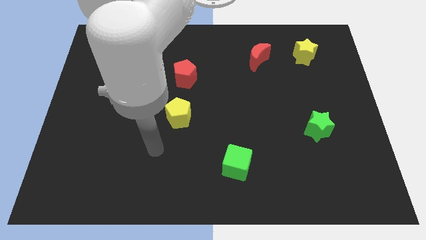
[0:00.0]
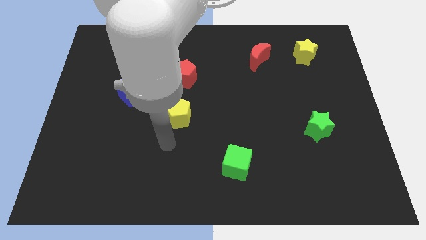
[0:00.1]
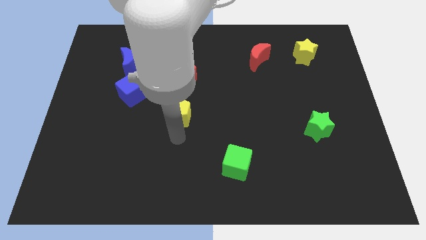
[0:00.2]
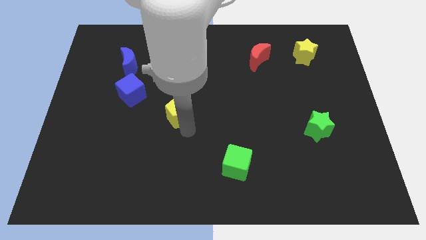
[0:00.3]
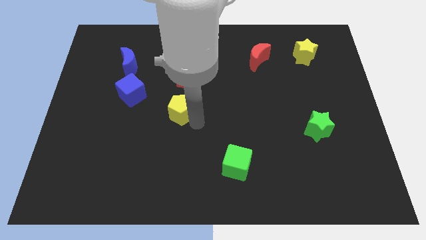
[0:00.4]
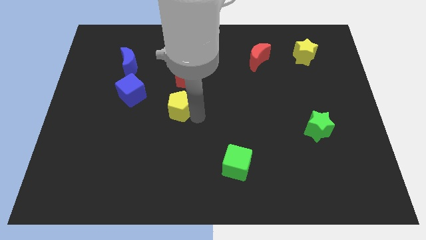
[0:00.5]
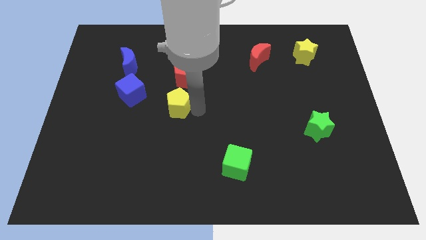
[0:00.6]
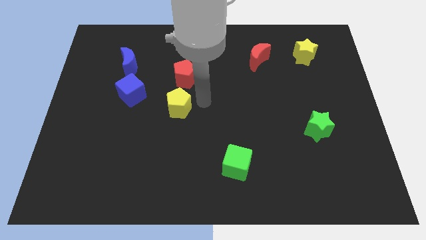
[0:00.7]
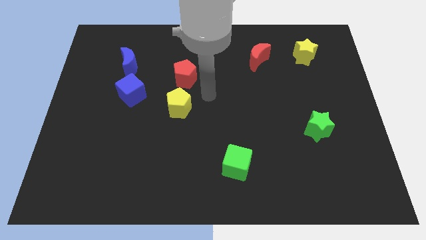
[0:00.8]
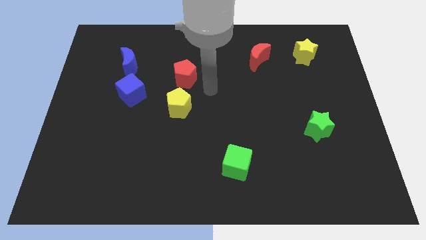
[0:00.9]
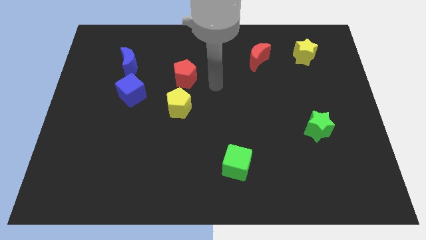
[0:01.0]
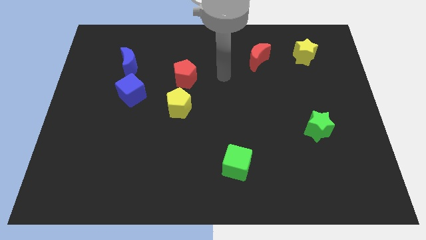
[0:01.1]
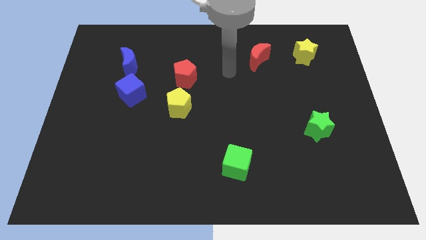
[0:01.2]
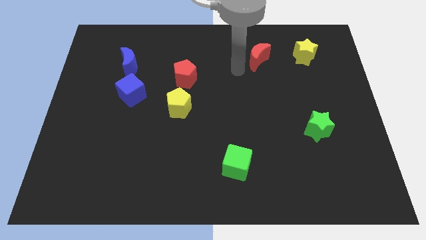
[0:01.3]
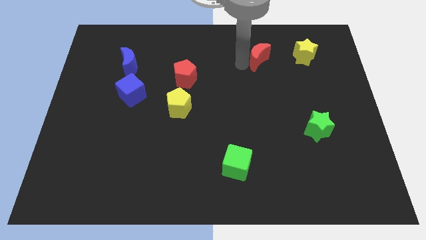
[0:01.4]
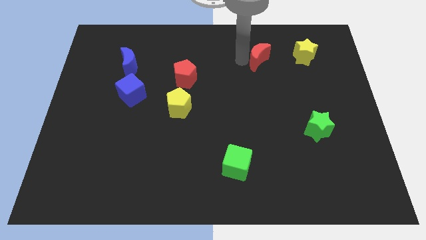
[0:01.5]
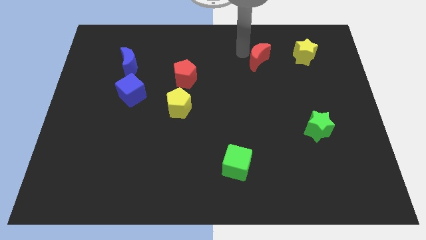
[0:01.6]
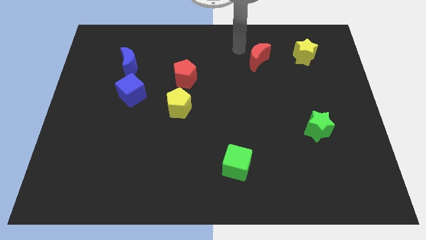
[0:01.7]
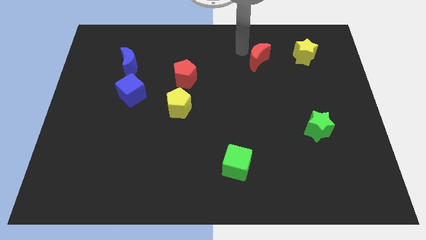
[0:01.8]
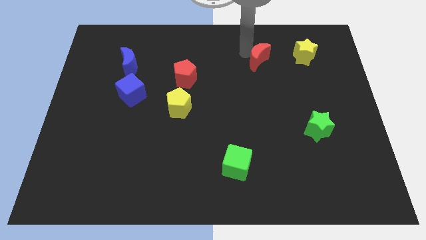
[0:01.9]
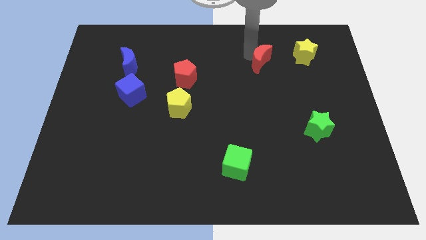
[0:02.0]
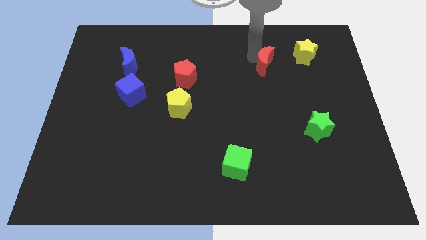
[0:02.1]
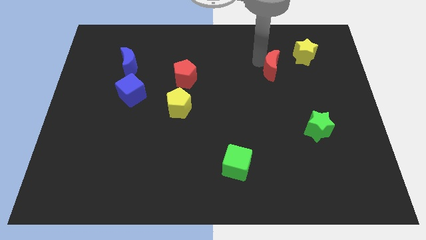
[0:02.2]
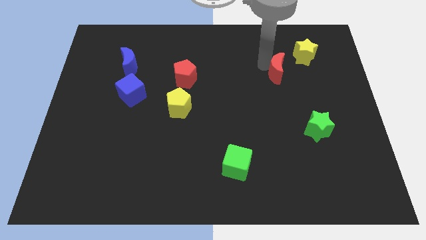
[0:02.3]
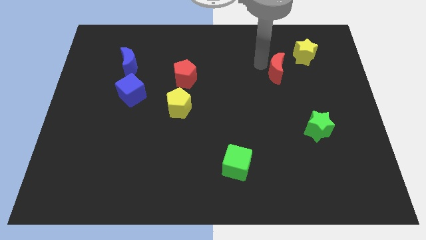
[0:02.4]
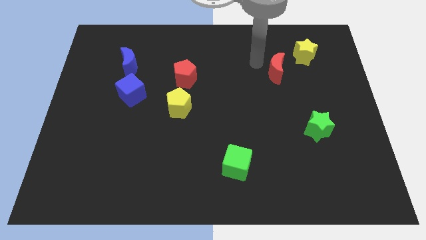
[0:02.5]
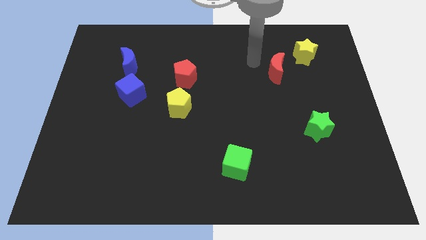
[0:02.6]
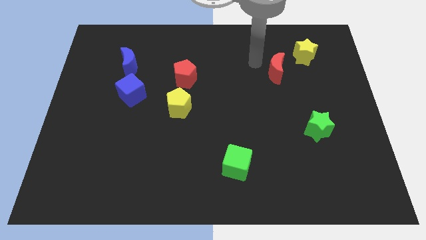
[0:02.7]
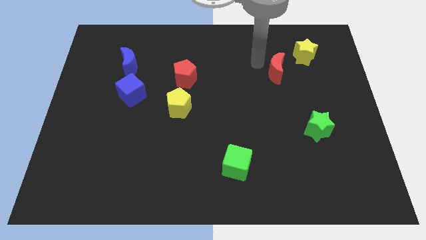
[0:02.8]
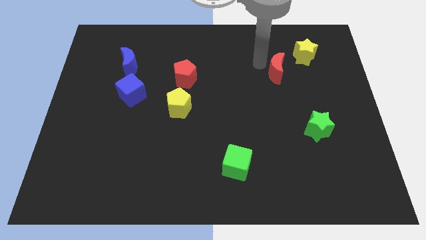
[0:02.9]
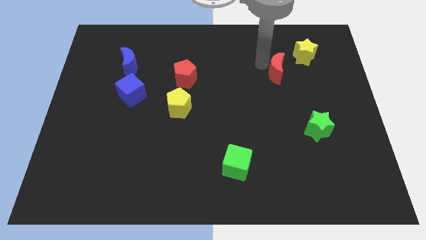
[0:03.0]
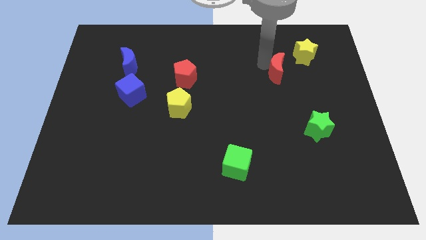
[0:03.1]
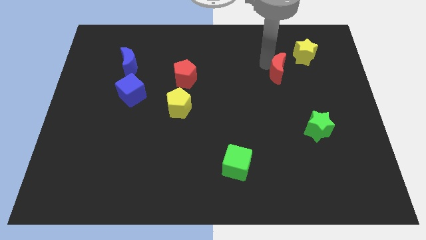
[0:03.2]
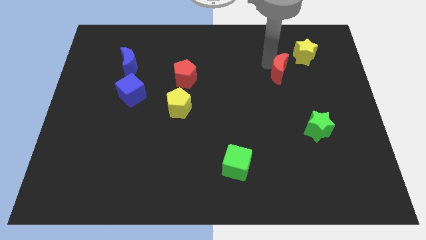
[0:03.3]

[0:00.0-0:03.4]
slightly push the red moon down and then to the right

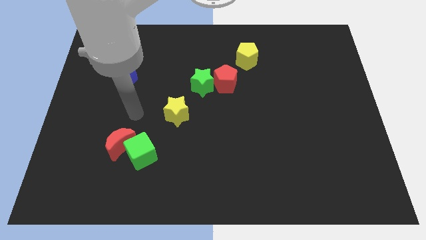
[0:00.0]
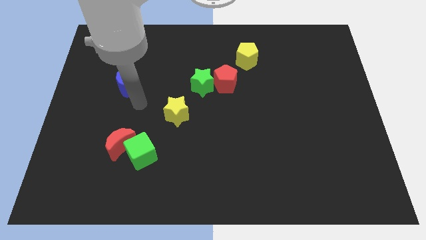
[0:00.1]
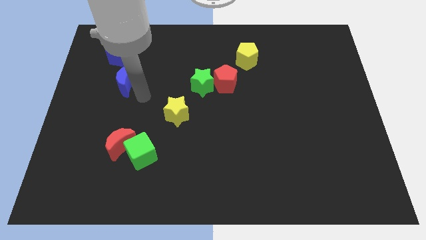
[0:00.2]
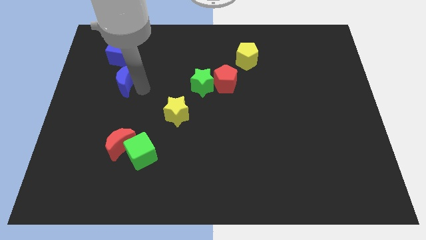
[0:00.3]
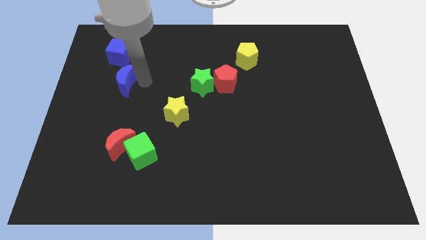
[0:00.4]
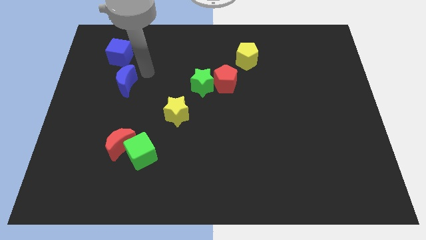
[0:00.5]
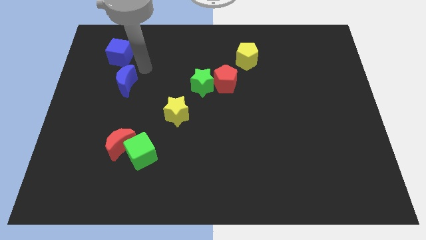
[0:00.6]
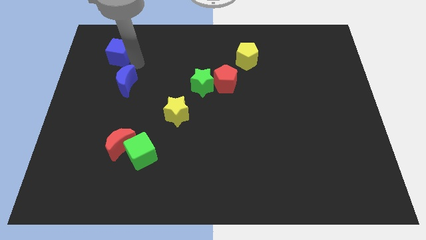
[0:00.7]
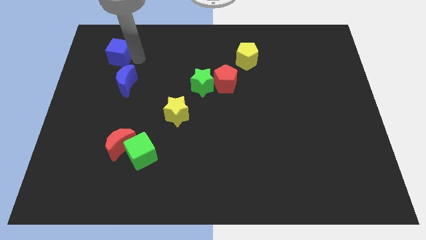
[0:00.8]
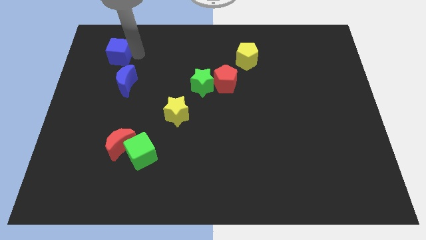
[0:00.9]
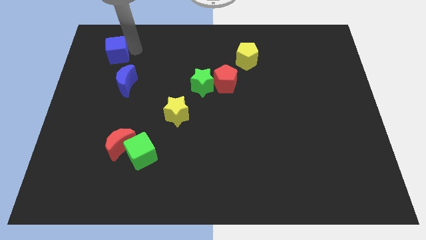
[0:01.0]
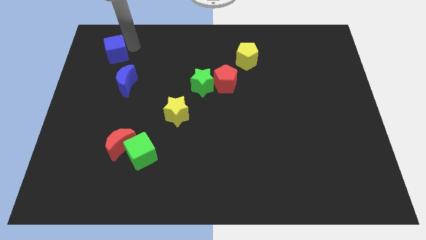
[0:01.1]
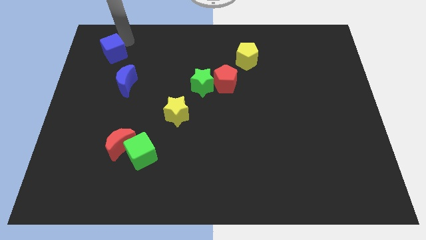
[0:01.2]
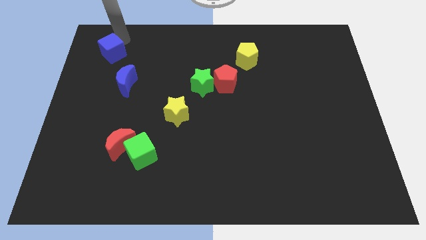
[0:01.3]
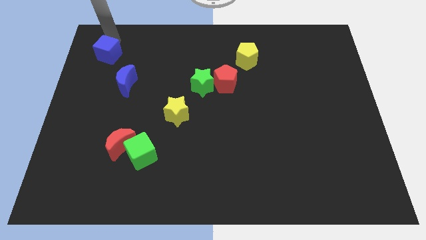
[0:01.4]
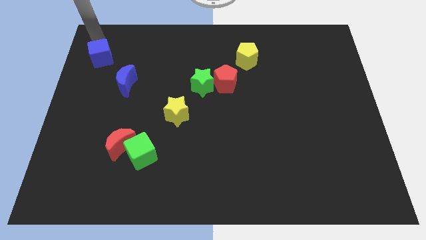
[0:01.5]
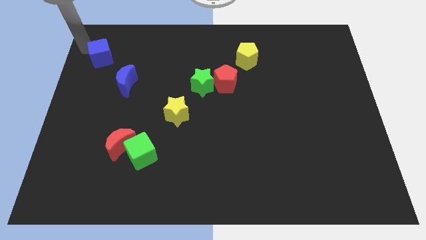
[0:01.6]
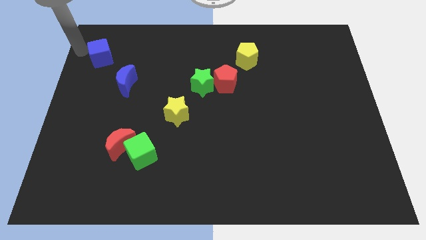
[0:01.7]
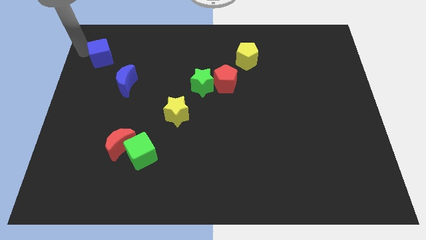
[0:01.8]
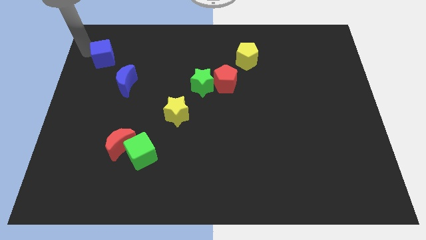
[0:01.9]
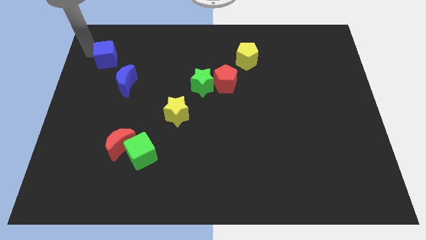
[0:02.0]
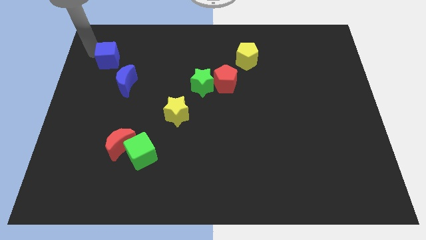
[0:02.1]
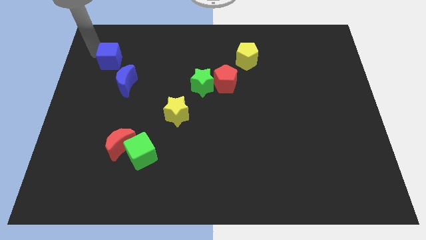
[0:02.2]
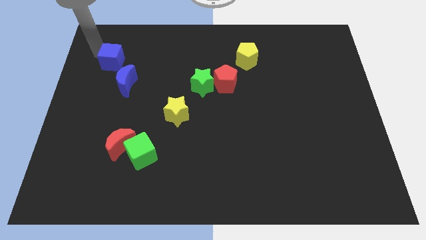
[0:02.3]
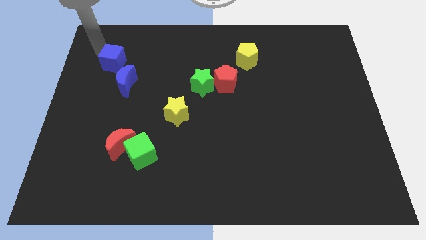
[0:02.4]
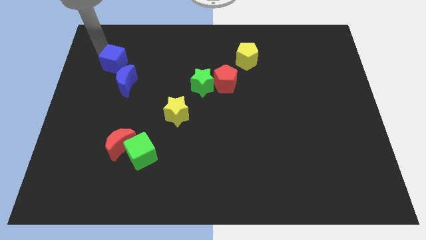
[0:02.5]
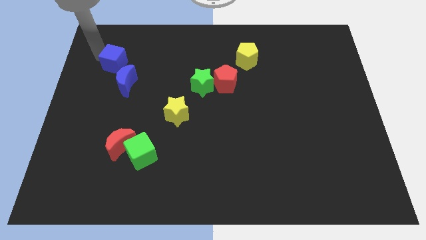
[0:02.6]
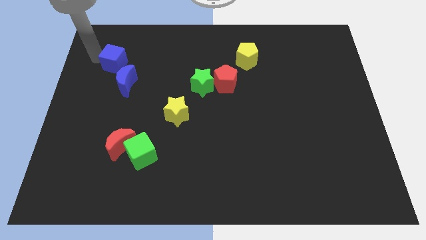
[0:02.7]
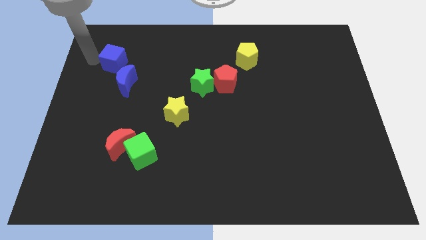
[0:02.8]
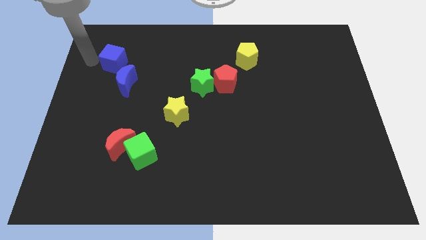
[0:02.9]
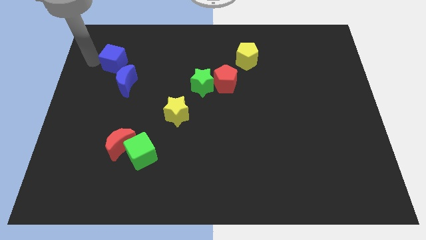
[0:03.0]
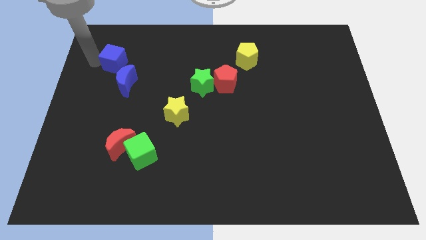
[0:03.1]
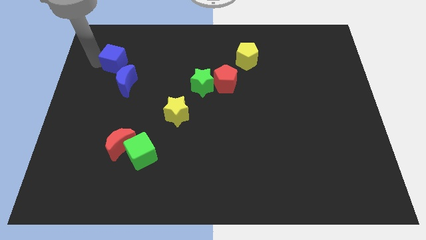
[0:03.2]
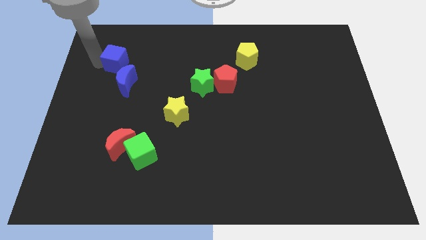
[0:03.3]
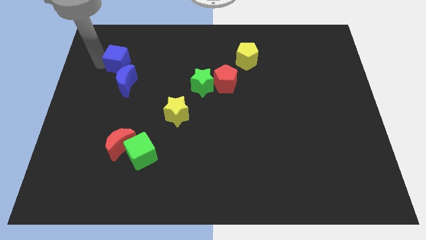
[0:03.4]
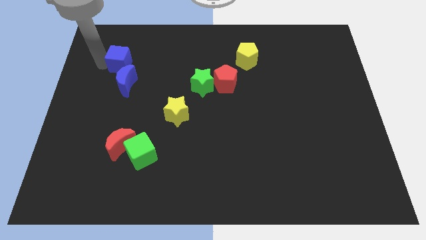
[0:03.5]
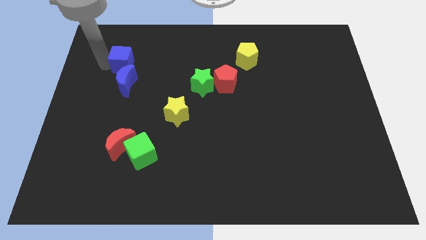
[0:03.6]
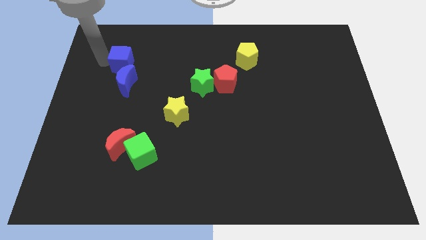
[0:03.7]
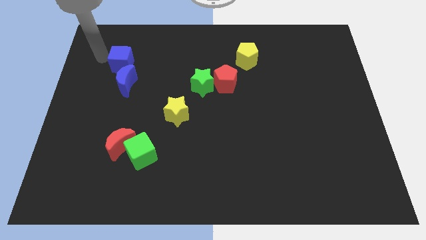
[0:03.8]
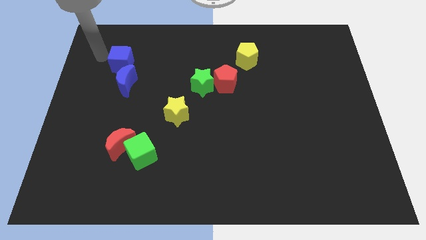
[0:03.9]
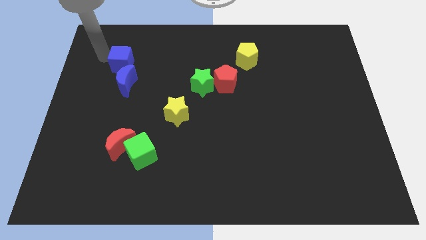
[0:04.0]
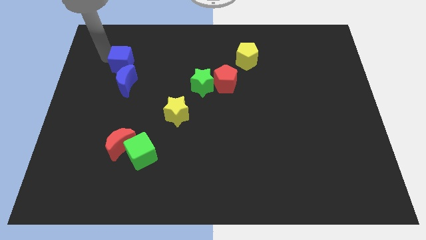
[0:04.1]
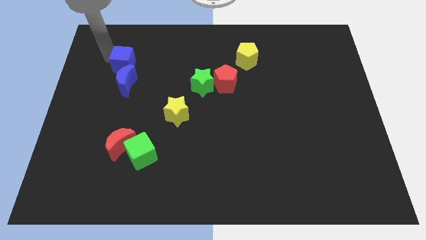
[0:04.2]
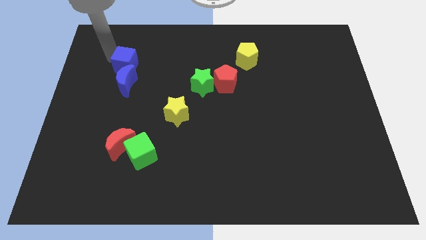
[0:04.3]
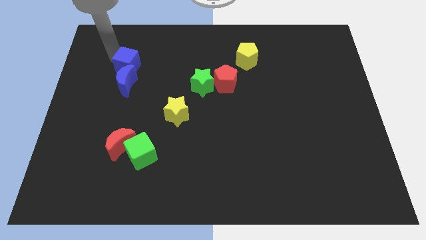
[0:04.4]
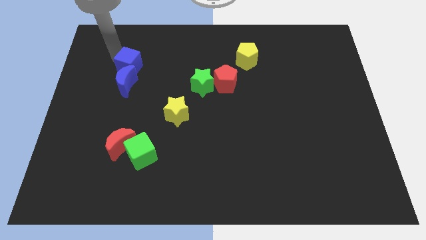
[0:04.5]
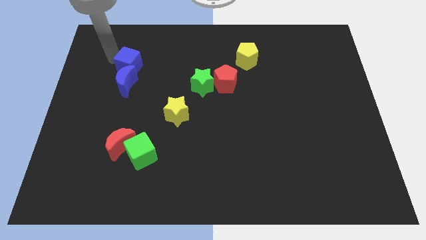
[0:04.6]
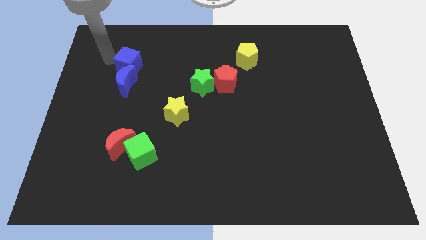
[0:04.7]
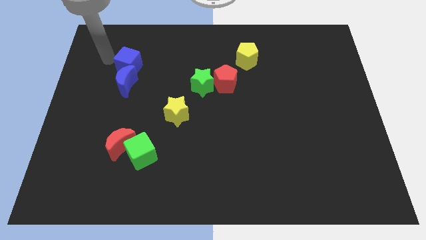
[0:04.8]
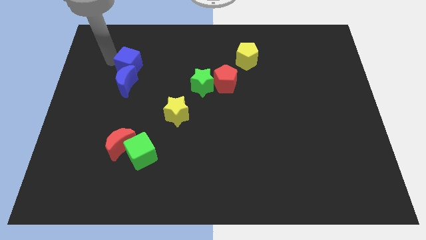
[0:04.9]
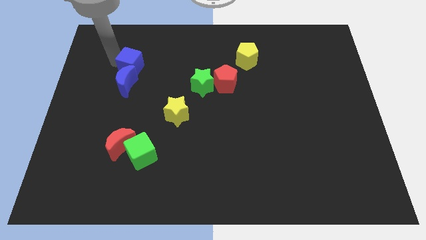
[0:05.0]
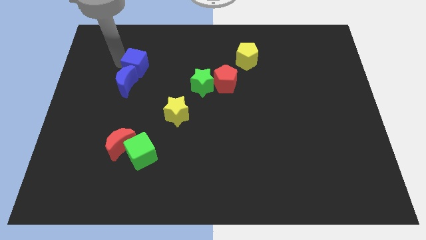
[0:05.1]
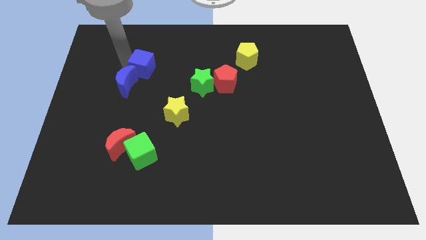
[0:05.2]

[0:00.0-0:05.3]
slide the blue cube a bit diagonally downwards and to the right
